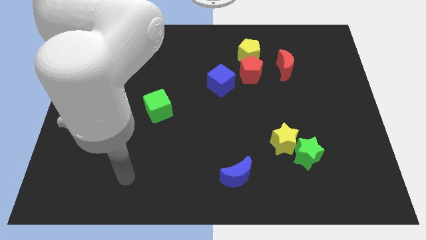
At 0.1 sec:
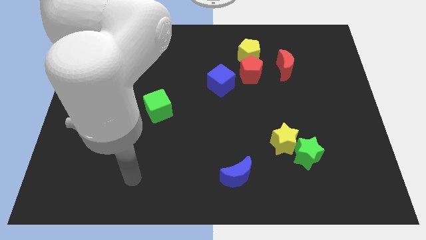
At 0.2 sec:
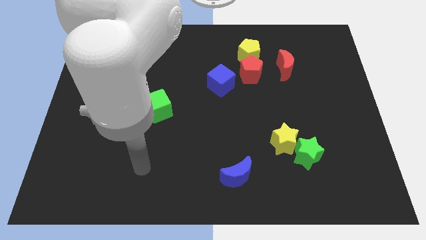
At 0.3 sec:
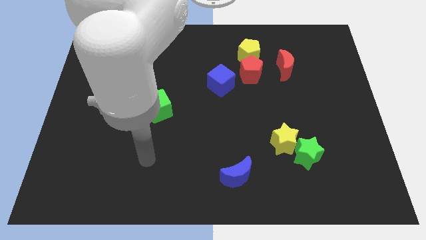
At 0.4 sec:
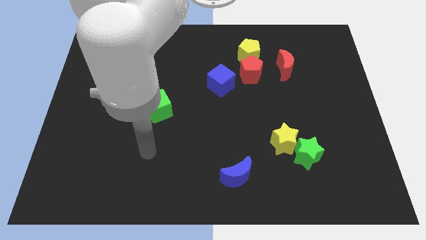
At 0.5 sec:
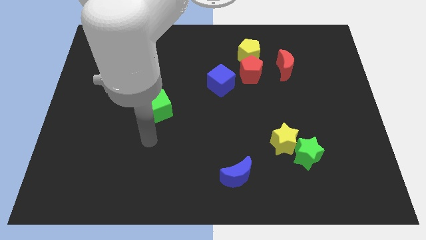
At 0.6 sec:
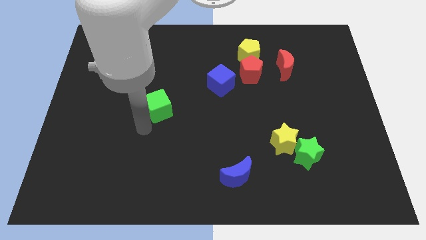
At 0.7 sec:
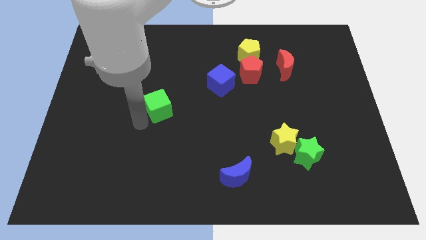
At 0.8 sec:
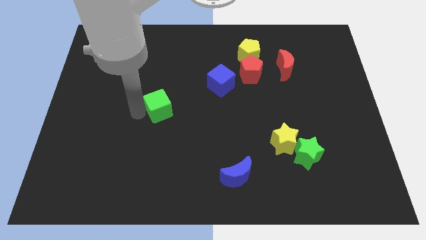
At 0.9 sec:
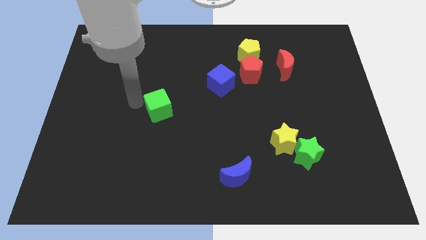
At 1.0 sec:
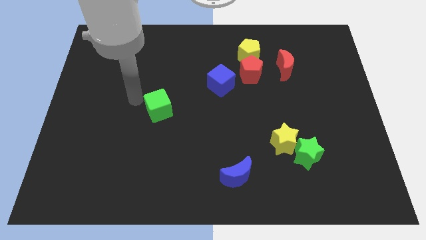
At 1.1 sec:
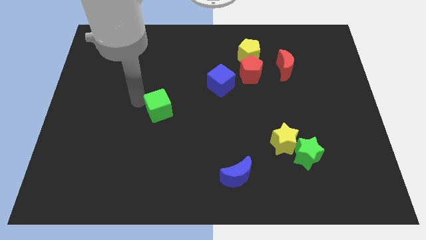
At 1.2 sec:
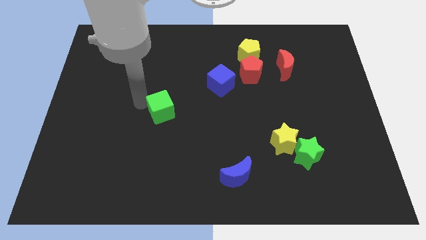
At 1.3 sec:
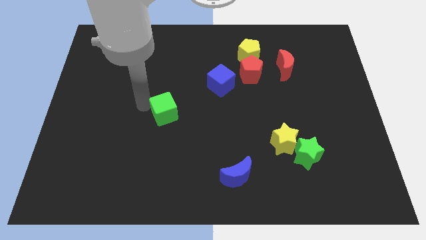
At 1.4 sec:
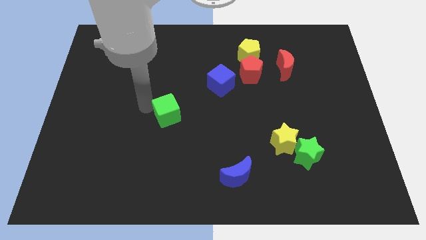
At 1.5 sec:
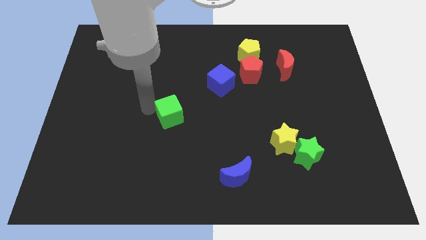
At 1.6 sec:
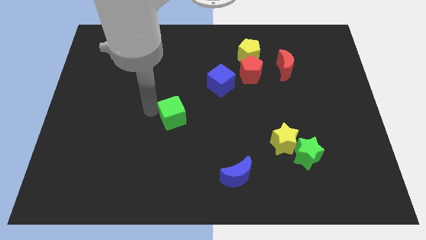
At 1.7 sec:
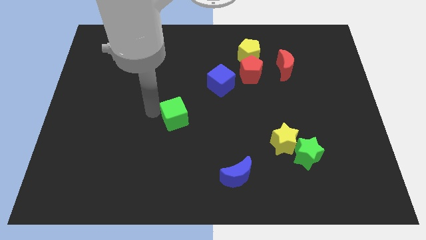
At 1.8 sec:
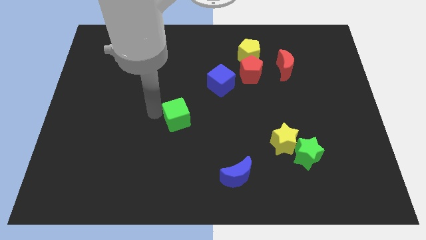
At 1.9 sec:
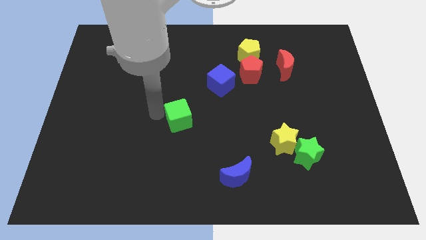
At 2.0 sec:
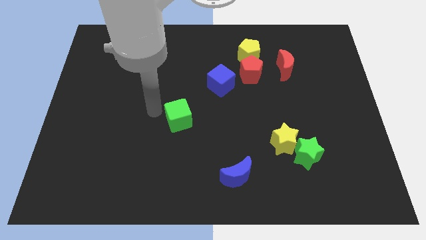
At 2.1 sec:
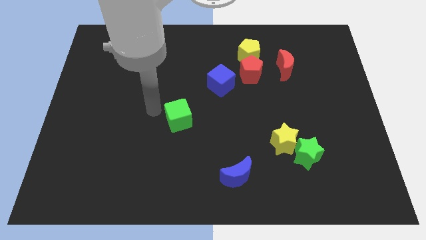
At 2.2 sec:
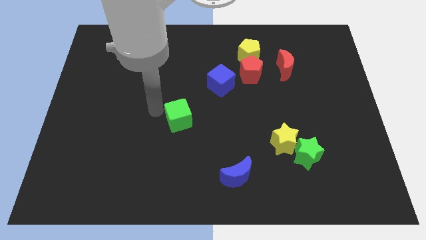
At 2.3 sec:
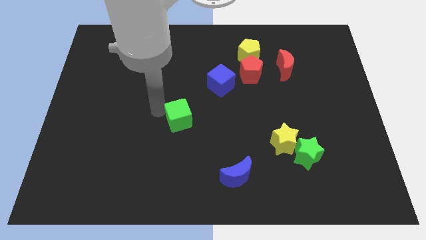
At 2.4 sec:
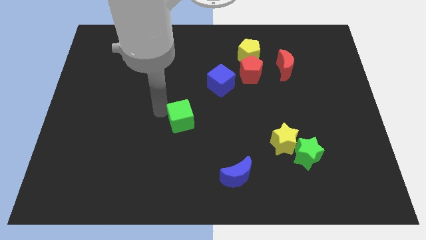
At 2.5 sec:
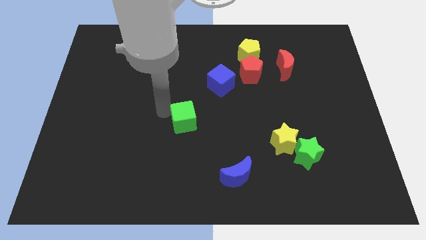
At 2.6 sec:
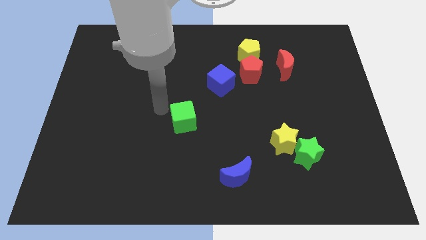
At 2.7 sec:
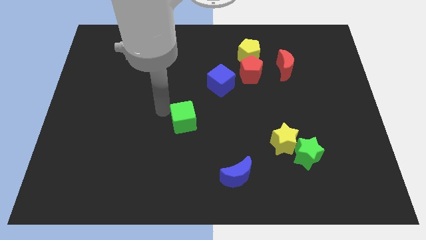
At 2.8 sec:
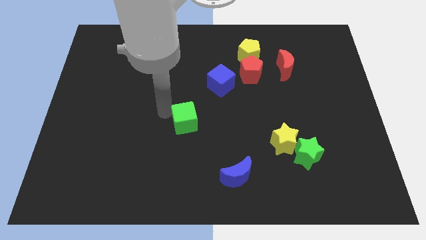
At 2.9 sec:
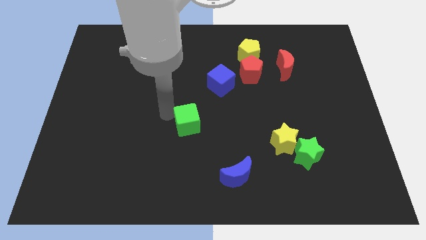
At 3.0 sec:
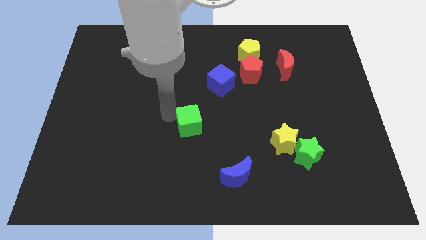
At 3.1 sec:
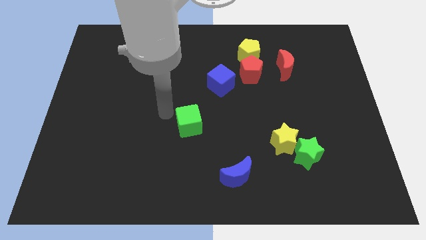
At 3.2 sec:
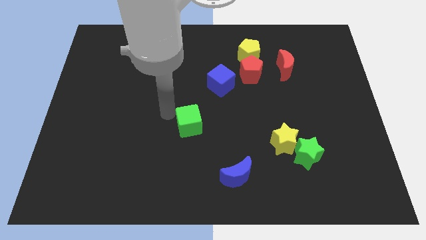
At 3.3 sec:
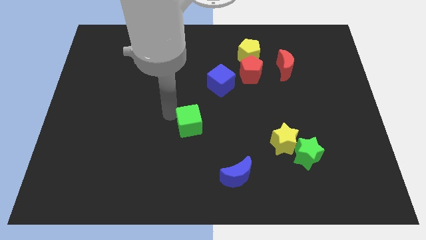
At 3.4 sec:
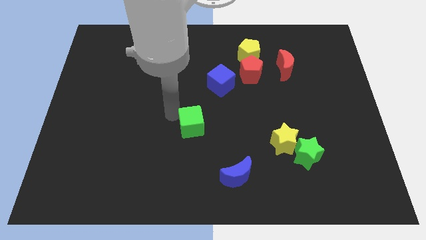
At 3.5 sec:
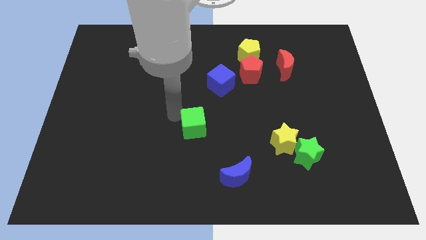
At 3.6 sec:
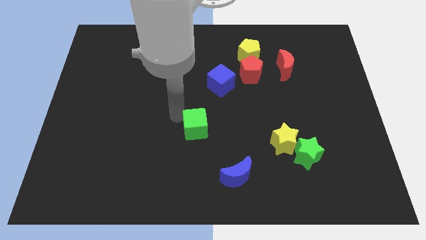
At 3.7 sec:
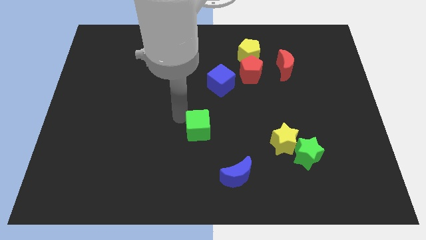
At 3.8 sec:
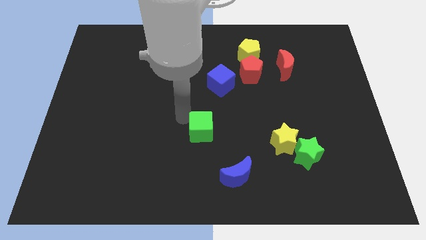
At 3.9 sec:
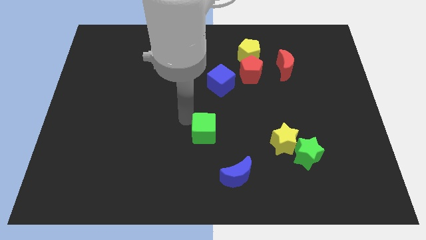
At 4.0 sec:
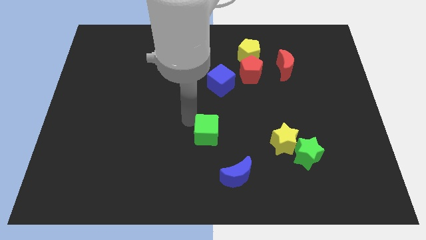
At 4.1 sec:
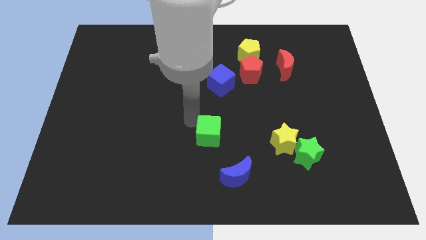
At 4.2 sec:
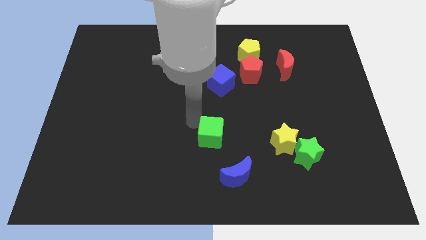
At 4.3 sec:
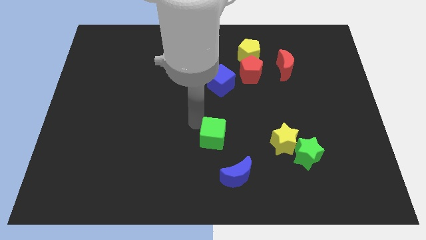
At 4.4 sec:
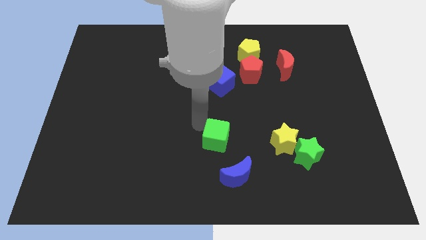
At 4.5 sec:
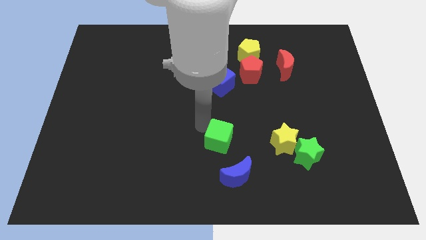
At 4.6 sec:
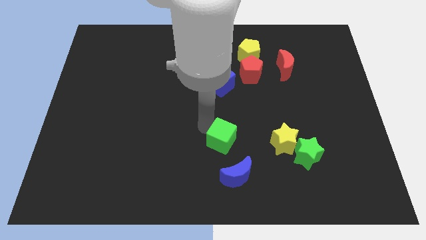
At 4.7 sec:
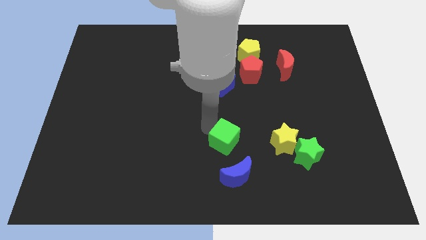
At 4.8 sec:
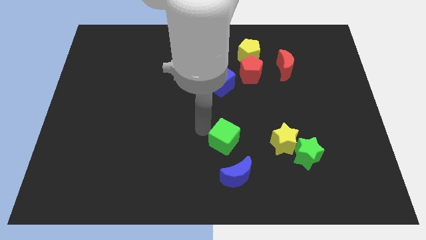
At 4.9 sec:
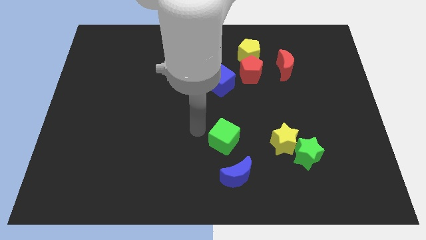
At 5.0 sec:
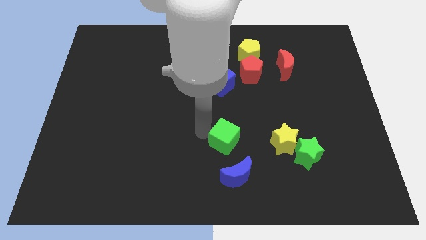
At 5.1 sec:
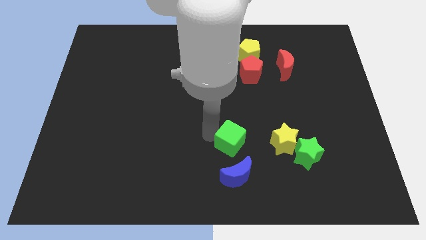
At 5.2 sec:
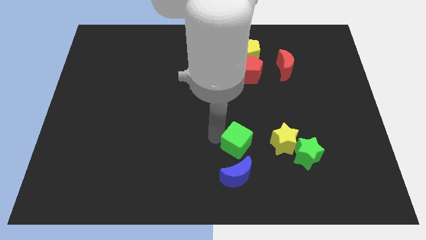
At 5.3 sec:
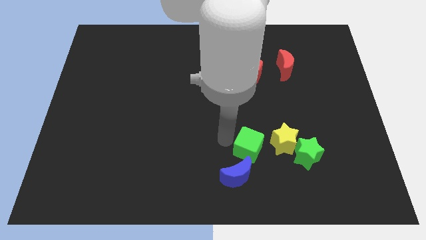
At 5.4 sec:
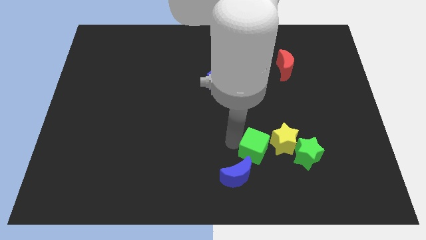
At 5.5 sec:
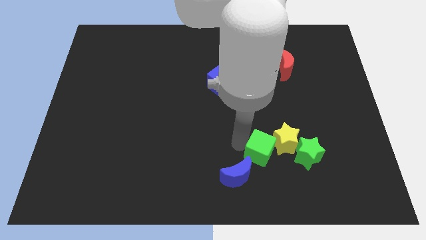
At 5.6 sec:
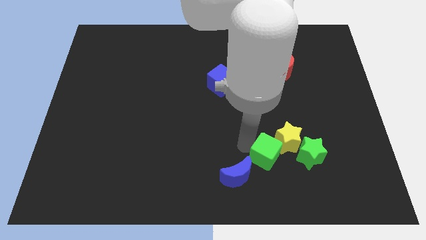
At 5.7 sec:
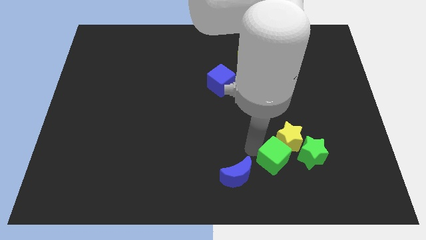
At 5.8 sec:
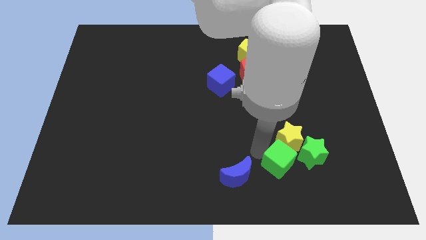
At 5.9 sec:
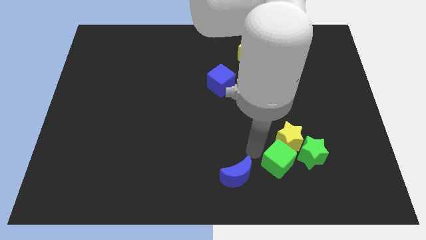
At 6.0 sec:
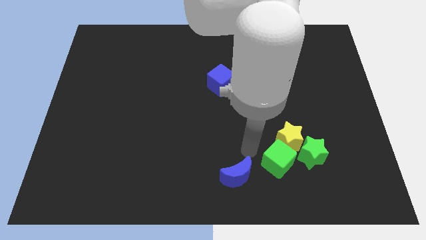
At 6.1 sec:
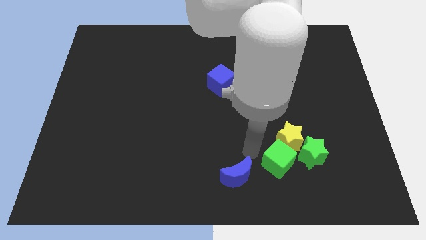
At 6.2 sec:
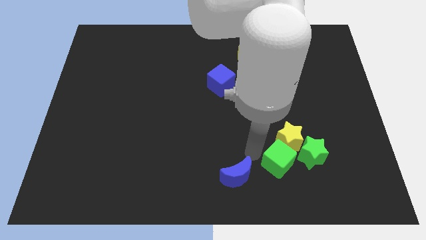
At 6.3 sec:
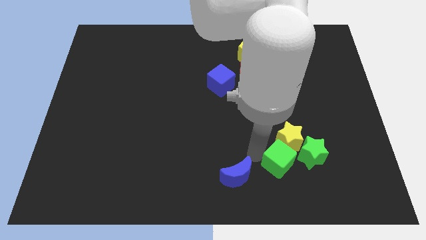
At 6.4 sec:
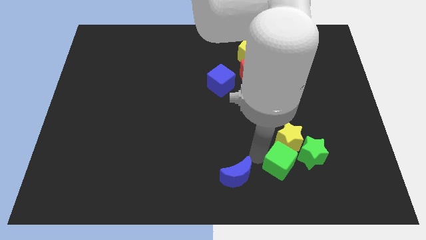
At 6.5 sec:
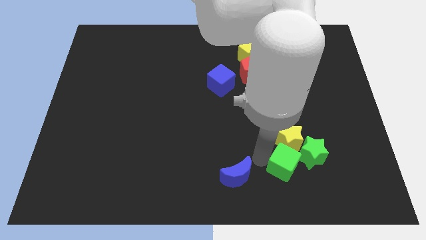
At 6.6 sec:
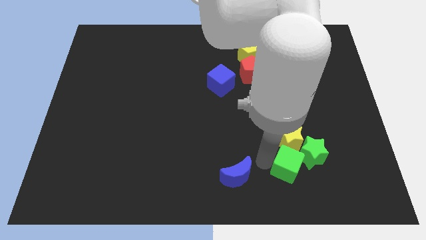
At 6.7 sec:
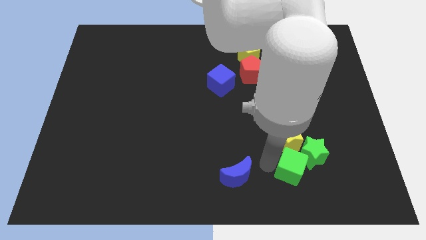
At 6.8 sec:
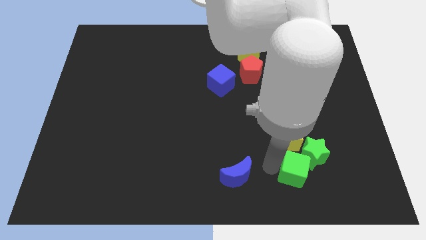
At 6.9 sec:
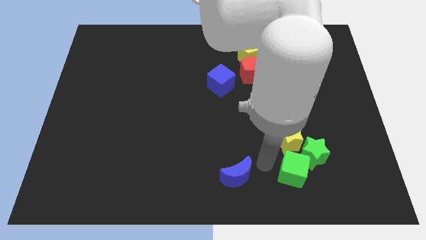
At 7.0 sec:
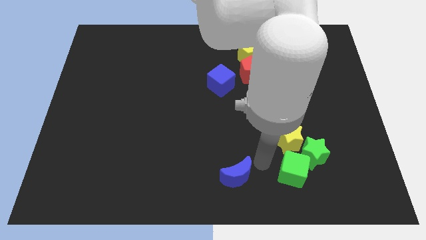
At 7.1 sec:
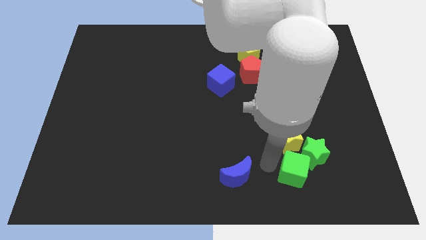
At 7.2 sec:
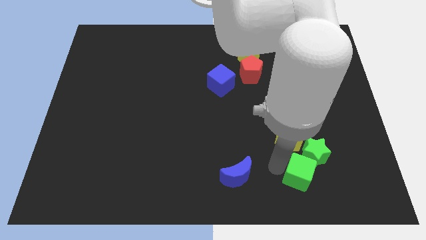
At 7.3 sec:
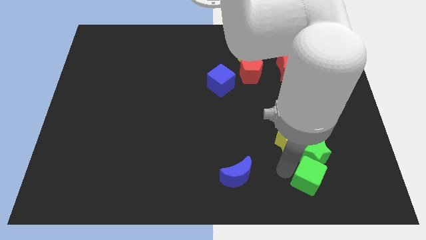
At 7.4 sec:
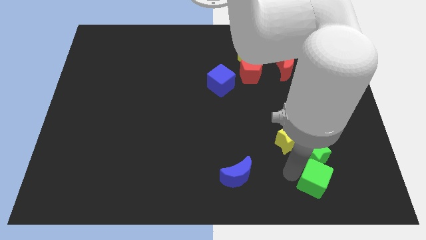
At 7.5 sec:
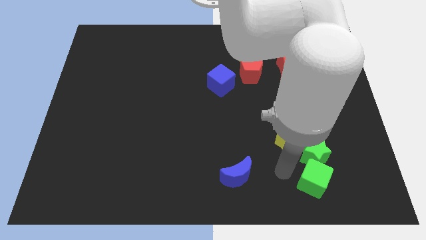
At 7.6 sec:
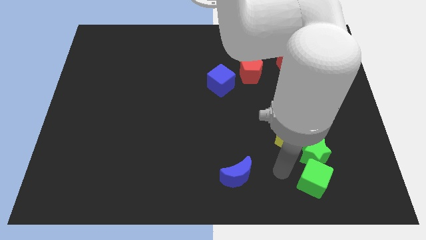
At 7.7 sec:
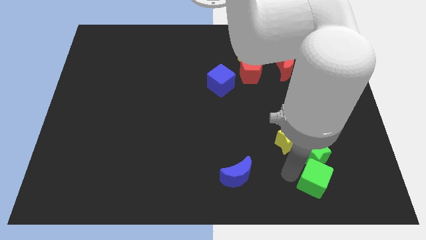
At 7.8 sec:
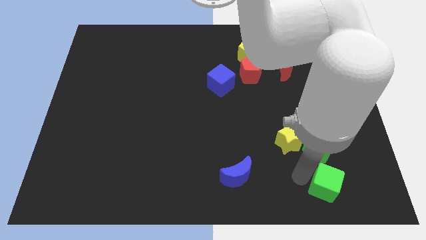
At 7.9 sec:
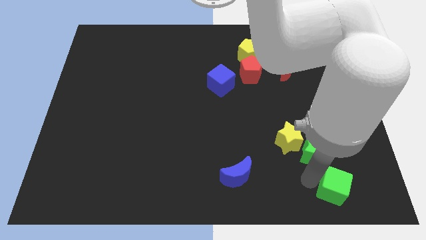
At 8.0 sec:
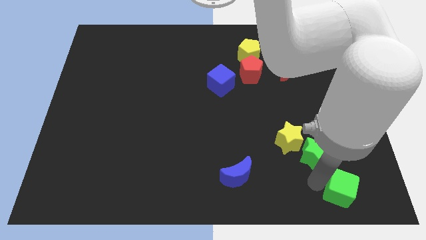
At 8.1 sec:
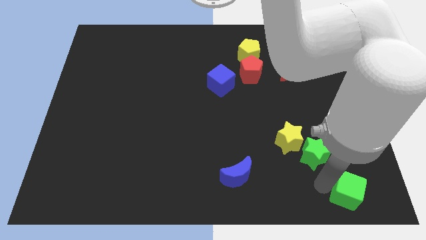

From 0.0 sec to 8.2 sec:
put the green cube to the lower right corner
